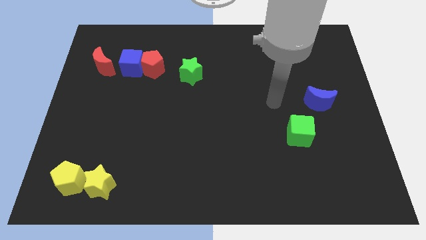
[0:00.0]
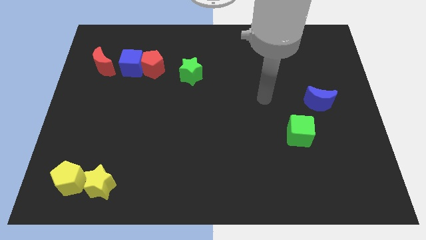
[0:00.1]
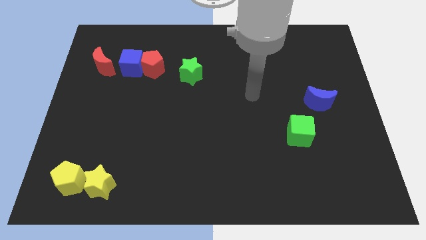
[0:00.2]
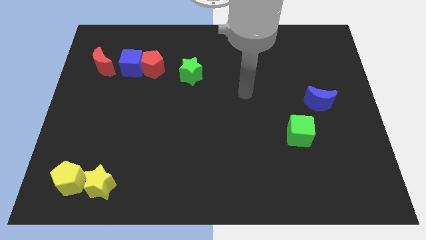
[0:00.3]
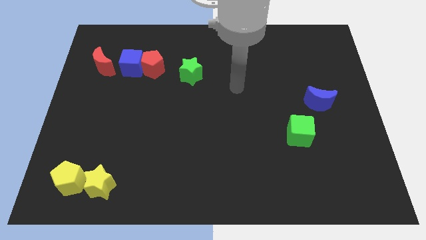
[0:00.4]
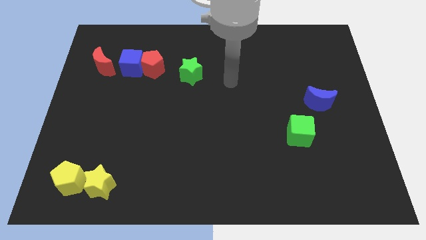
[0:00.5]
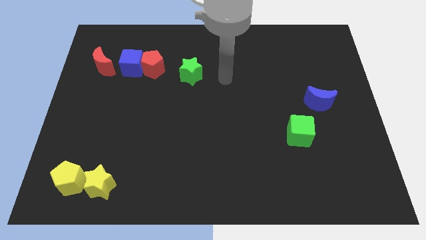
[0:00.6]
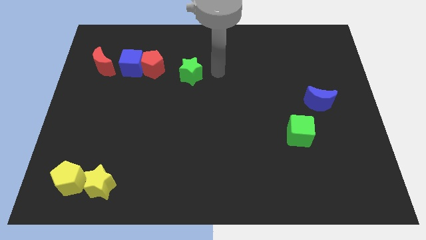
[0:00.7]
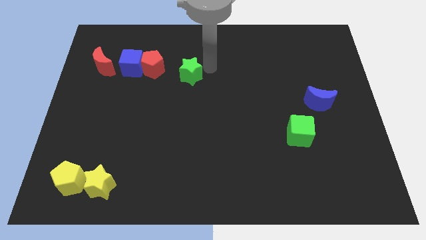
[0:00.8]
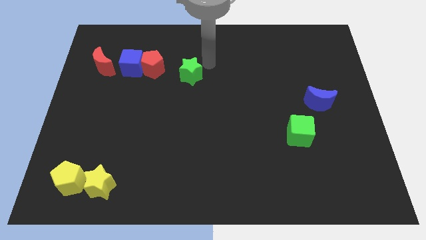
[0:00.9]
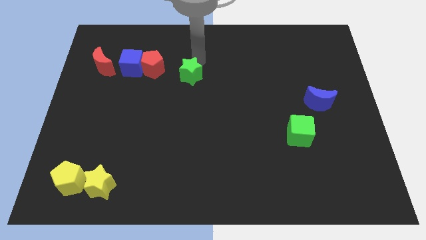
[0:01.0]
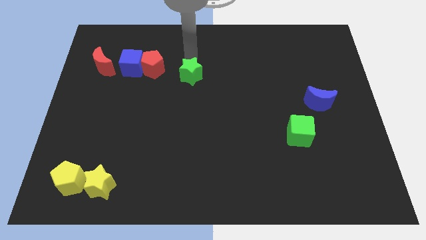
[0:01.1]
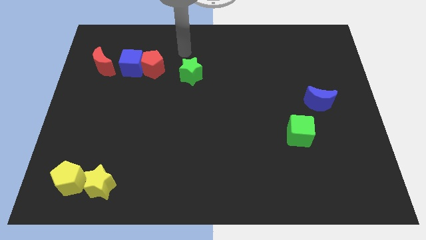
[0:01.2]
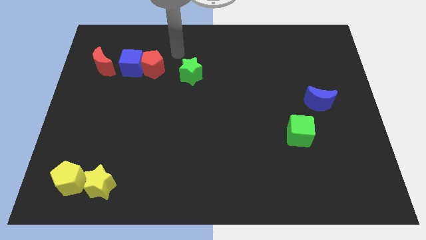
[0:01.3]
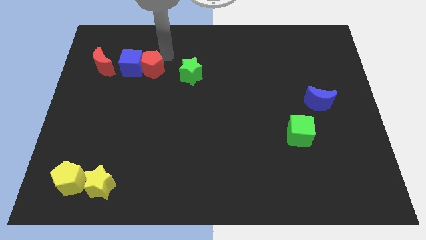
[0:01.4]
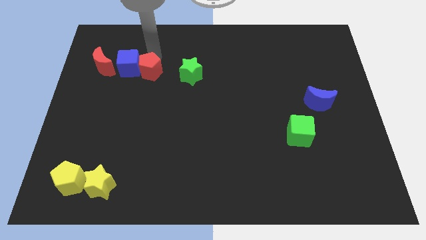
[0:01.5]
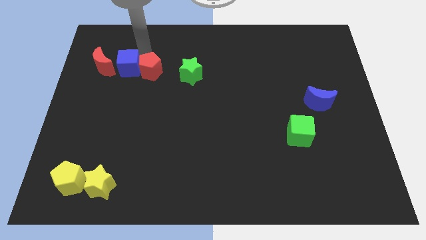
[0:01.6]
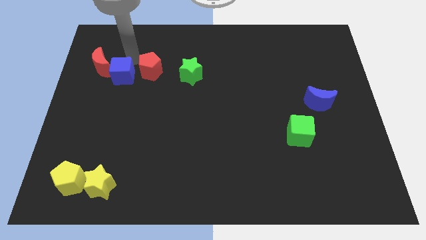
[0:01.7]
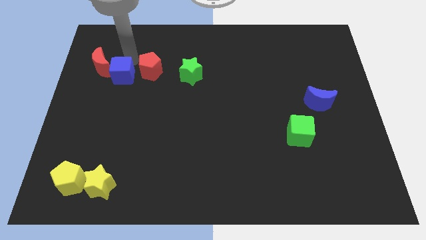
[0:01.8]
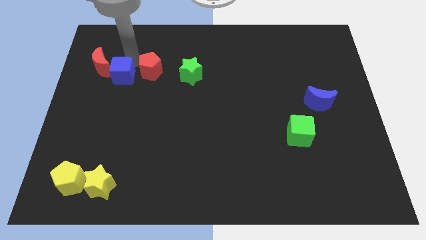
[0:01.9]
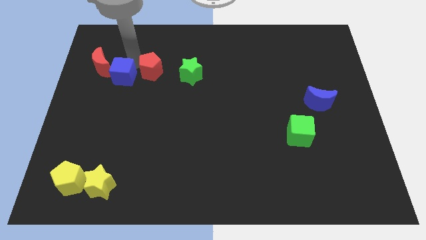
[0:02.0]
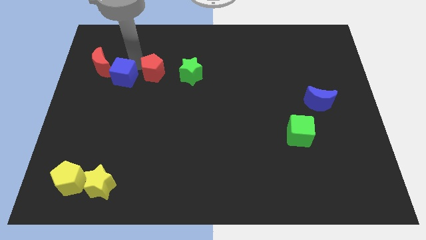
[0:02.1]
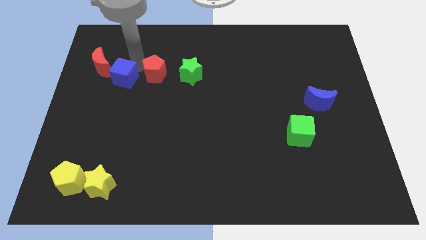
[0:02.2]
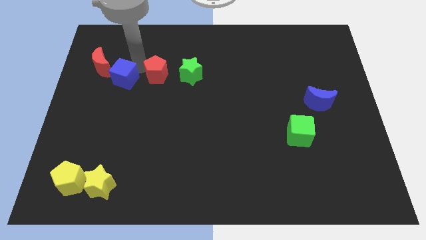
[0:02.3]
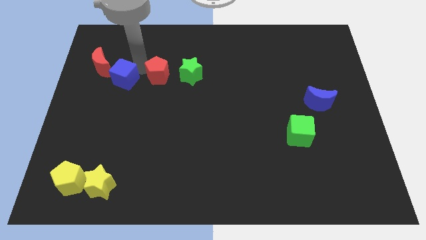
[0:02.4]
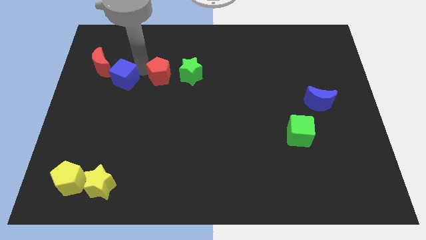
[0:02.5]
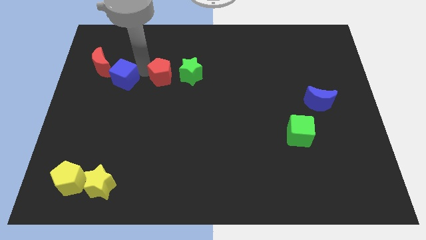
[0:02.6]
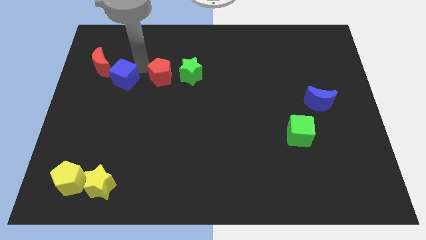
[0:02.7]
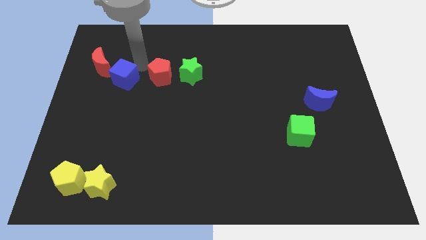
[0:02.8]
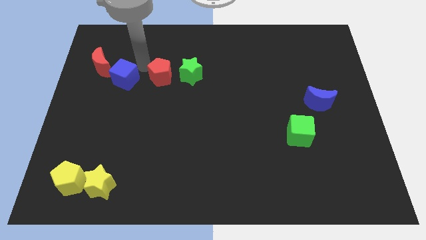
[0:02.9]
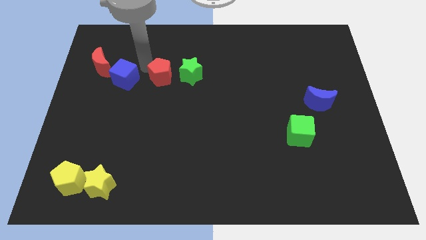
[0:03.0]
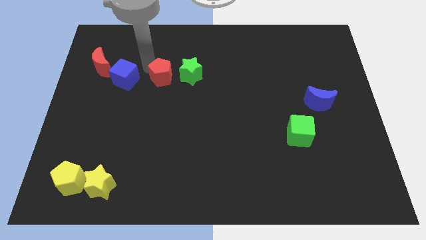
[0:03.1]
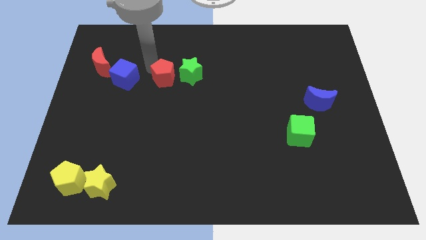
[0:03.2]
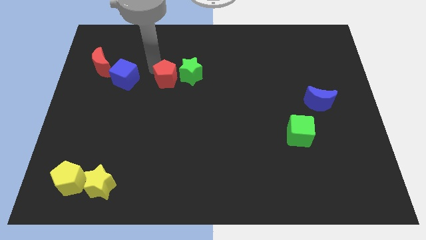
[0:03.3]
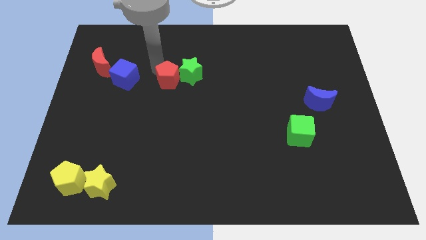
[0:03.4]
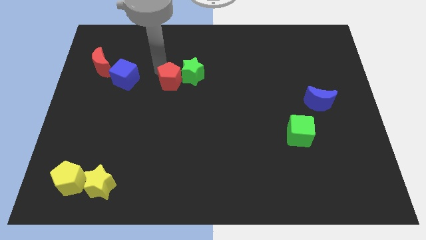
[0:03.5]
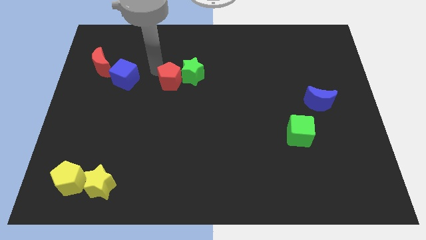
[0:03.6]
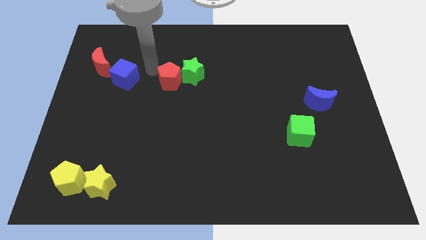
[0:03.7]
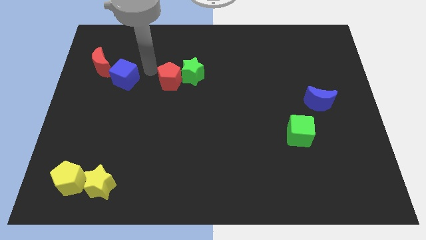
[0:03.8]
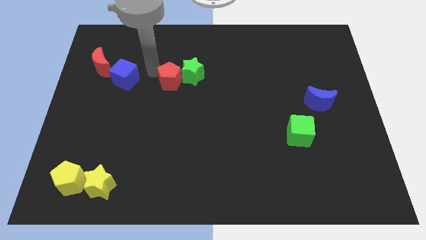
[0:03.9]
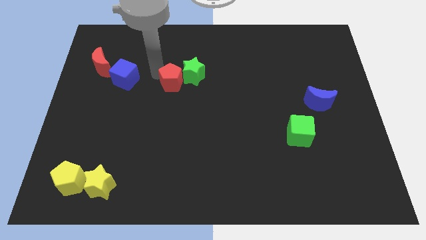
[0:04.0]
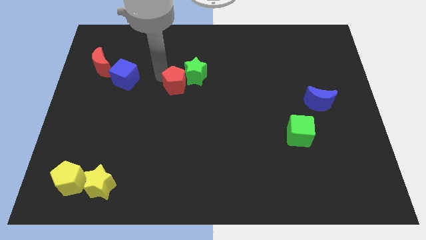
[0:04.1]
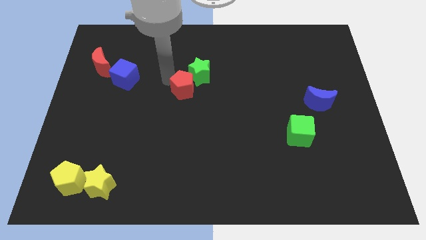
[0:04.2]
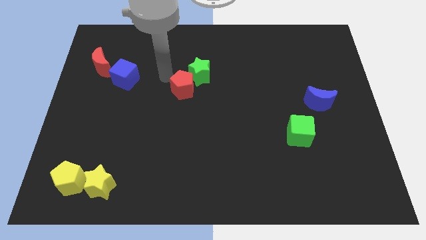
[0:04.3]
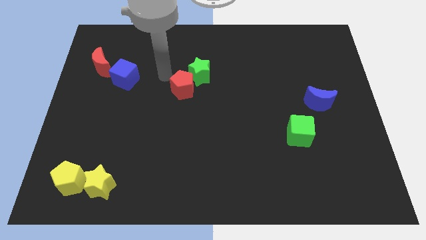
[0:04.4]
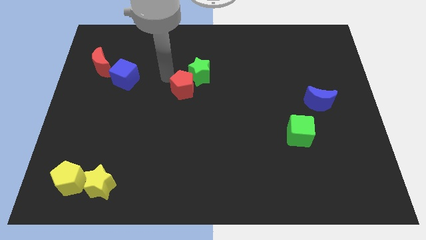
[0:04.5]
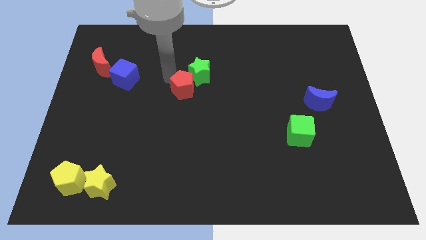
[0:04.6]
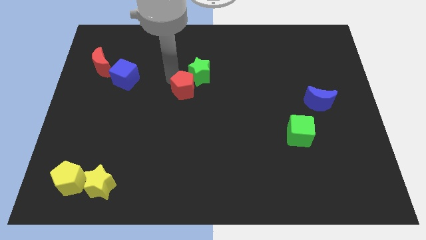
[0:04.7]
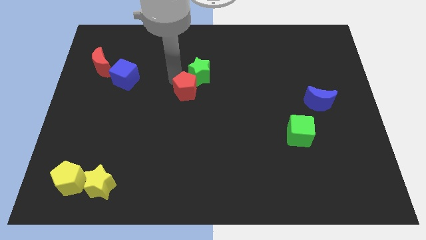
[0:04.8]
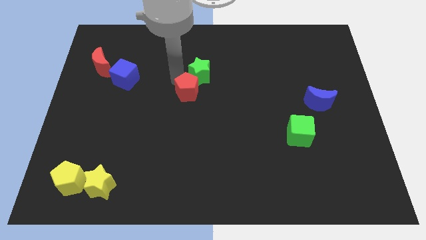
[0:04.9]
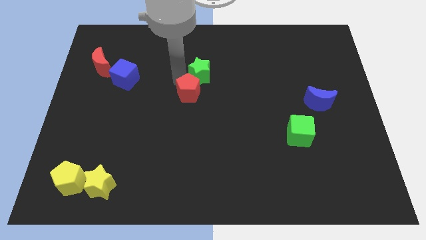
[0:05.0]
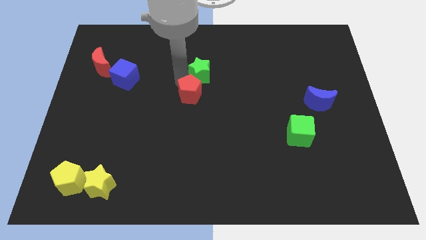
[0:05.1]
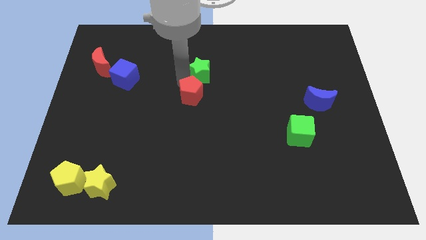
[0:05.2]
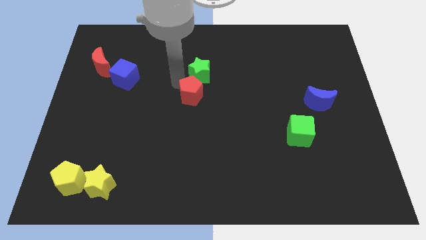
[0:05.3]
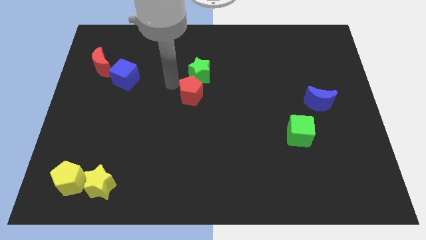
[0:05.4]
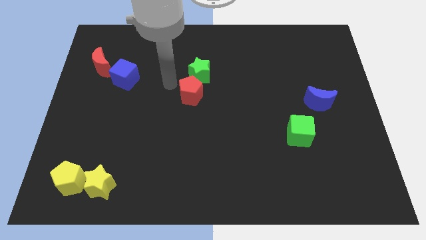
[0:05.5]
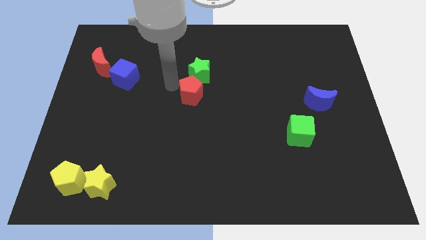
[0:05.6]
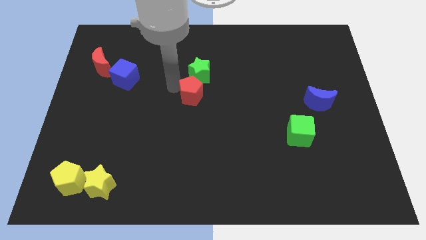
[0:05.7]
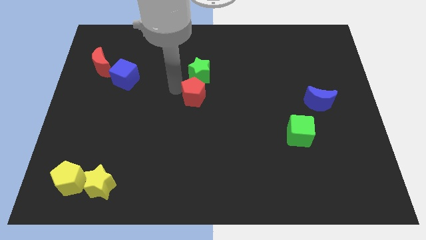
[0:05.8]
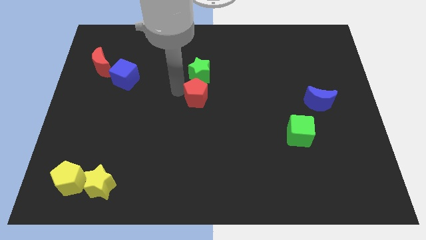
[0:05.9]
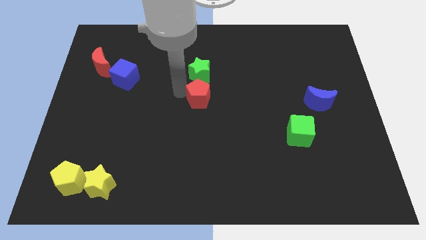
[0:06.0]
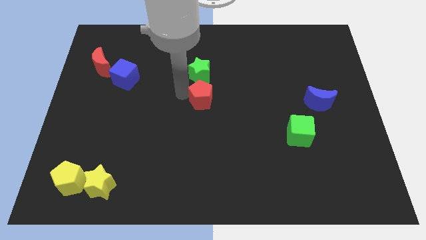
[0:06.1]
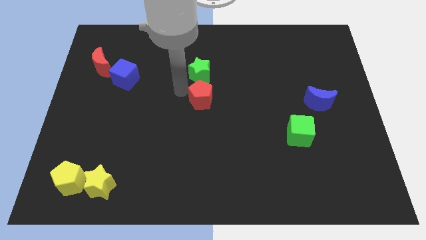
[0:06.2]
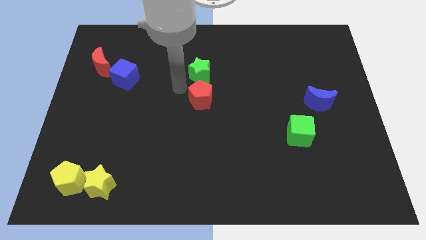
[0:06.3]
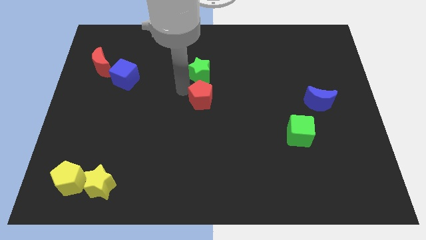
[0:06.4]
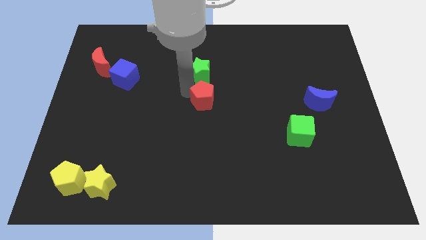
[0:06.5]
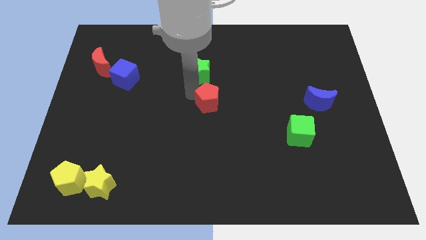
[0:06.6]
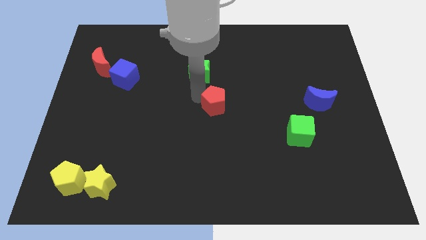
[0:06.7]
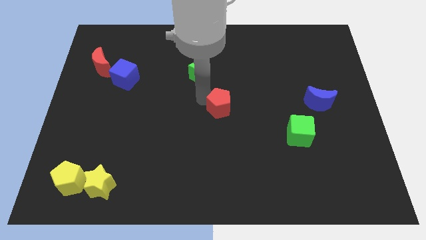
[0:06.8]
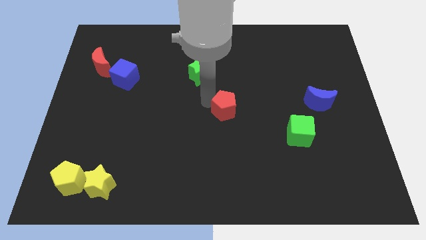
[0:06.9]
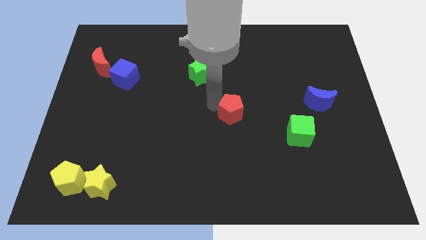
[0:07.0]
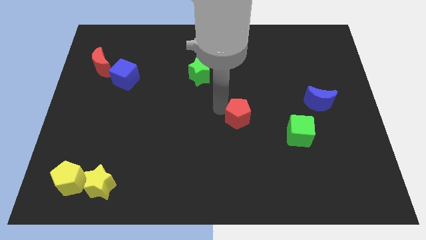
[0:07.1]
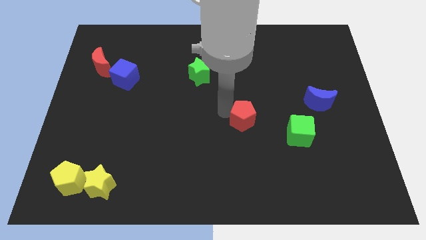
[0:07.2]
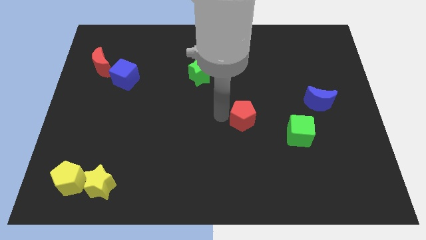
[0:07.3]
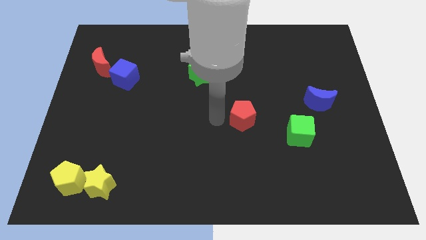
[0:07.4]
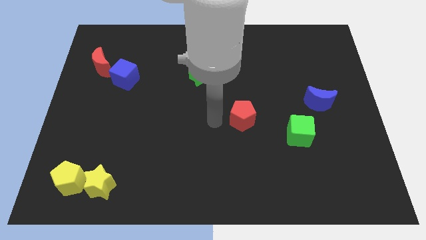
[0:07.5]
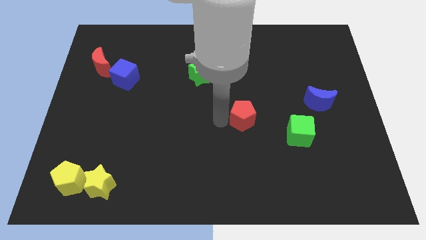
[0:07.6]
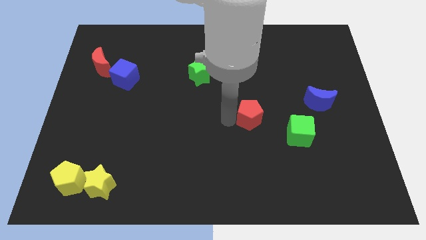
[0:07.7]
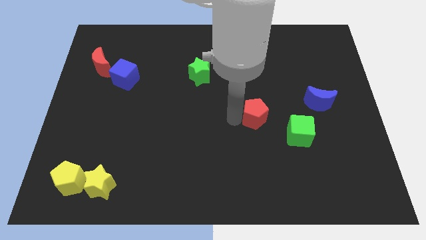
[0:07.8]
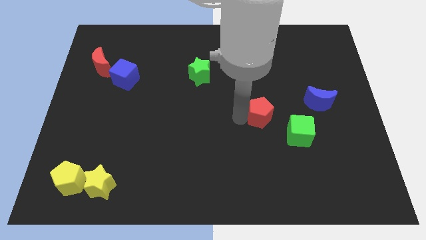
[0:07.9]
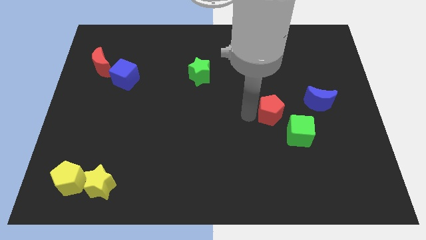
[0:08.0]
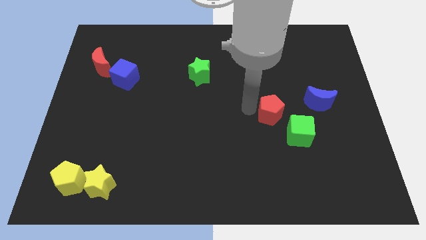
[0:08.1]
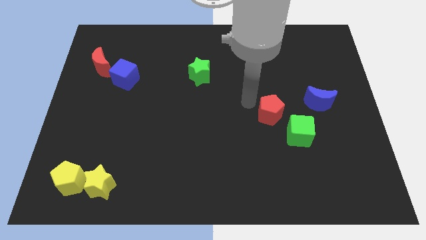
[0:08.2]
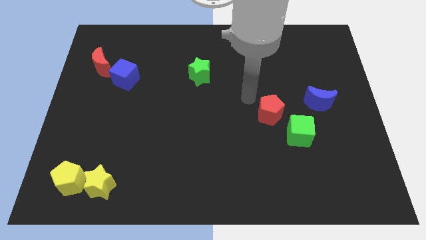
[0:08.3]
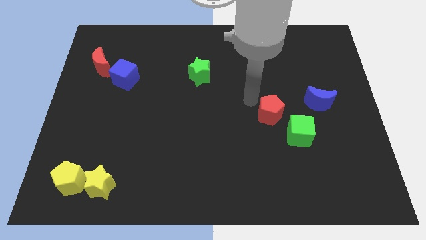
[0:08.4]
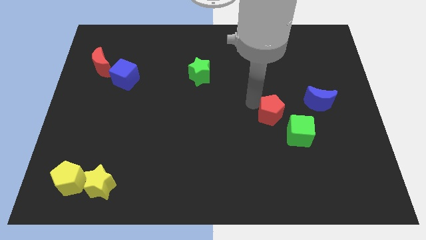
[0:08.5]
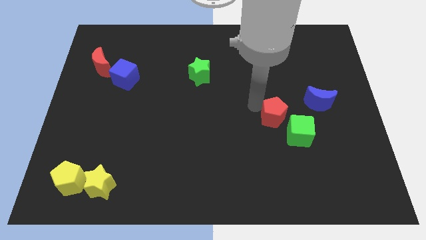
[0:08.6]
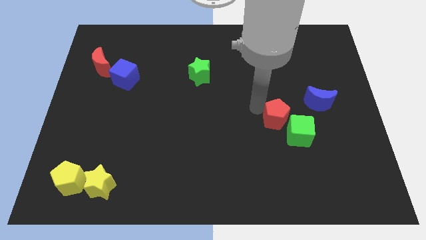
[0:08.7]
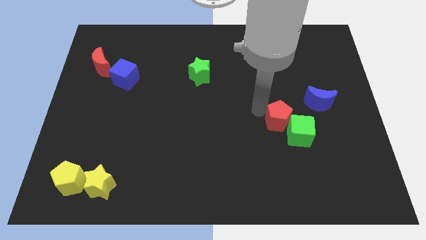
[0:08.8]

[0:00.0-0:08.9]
move the red pentagon close to the green cube
